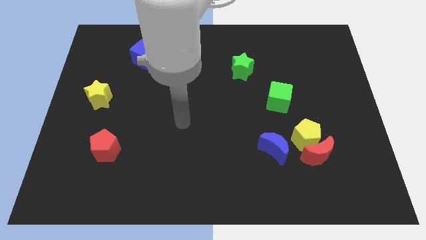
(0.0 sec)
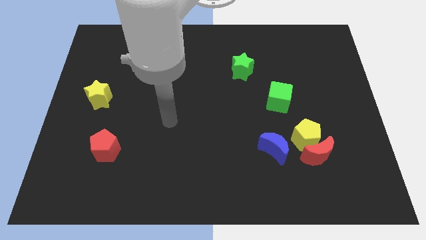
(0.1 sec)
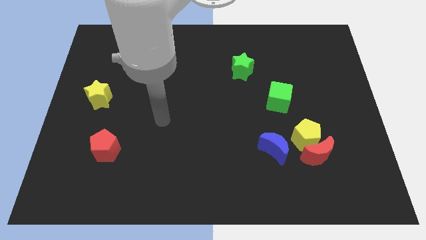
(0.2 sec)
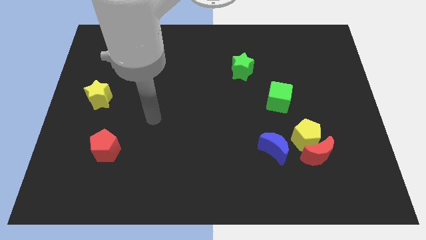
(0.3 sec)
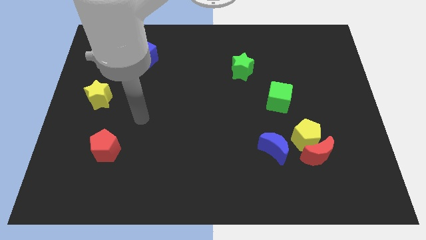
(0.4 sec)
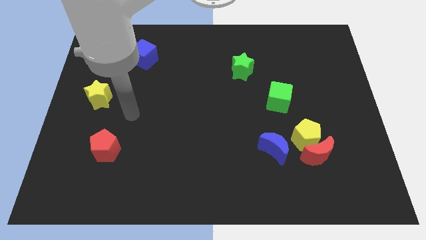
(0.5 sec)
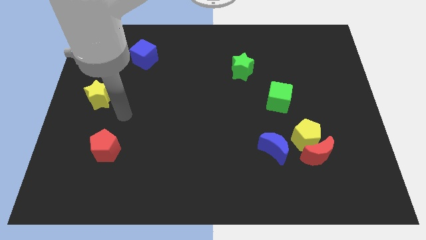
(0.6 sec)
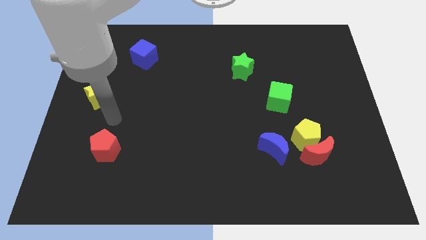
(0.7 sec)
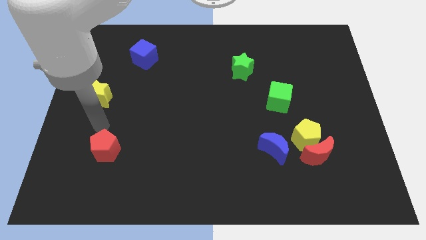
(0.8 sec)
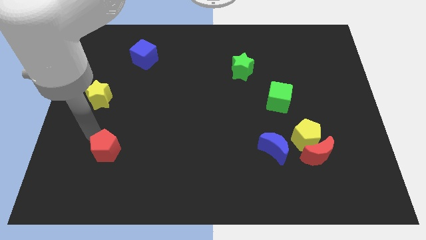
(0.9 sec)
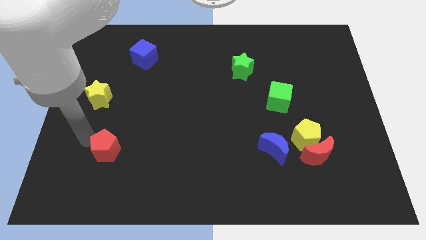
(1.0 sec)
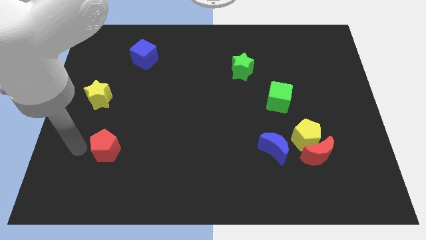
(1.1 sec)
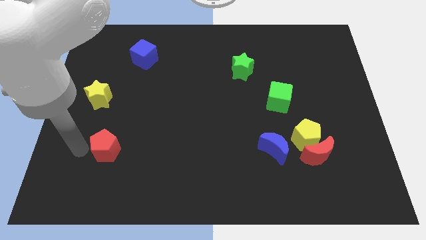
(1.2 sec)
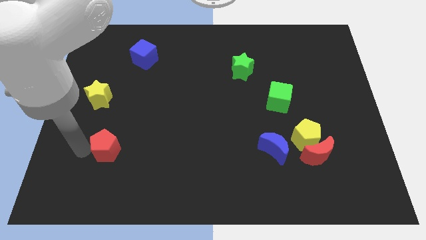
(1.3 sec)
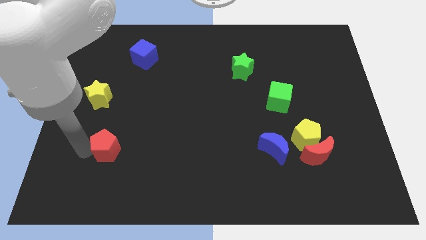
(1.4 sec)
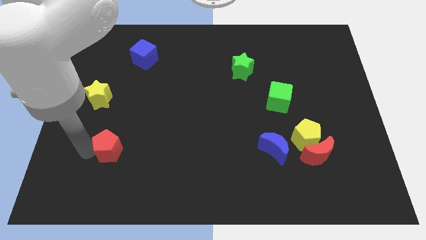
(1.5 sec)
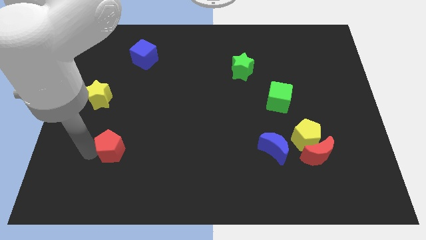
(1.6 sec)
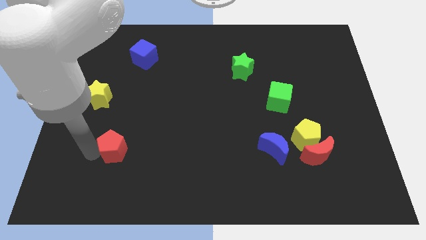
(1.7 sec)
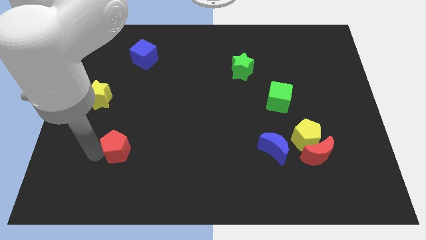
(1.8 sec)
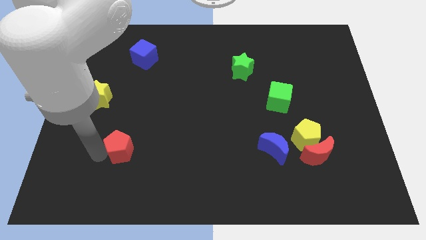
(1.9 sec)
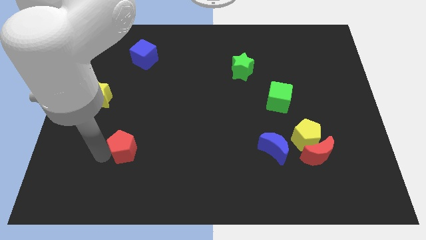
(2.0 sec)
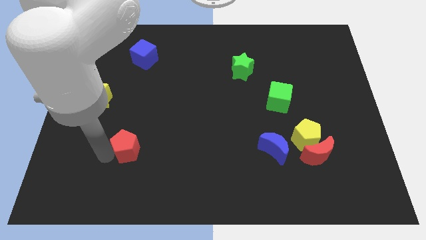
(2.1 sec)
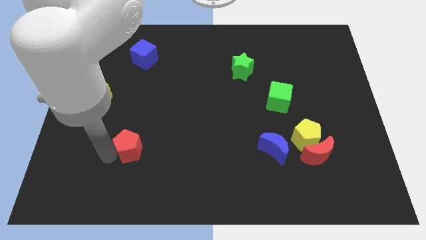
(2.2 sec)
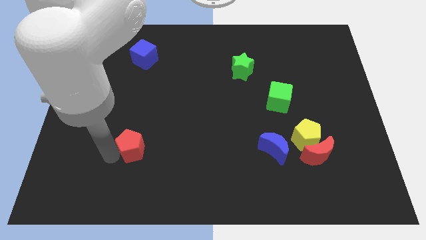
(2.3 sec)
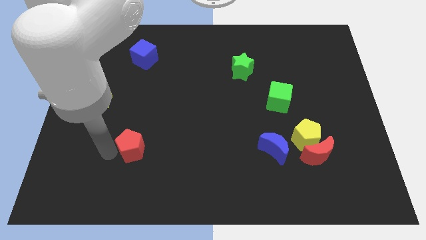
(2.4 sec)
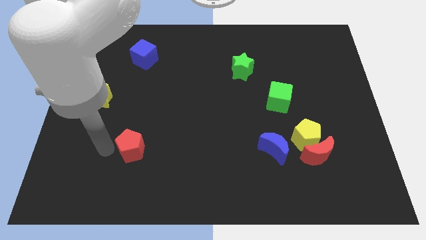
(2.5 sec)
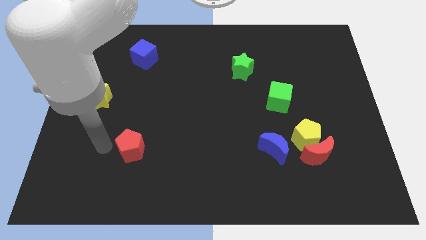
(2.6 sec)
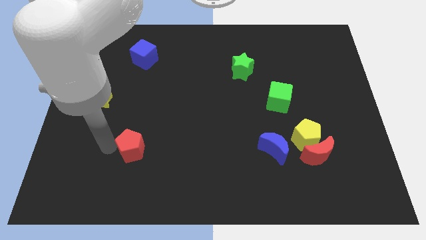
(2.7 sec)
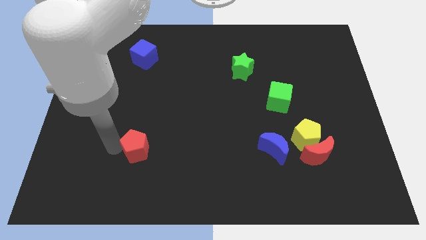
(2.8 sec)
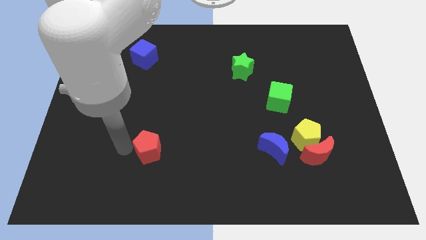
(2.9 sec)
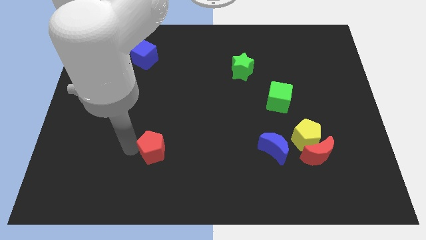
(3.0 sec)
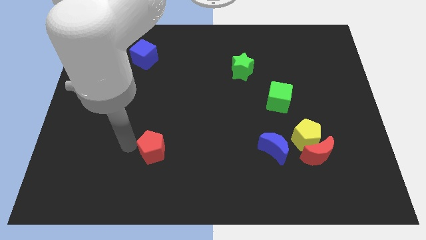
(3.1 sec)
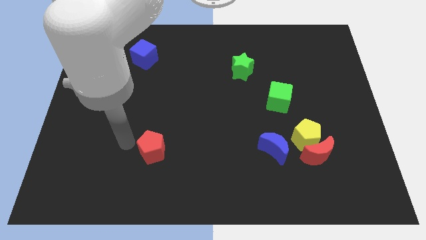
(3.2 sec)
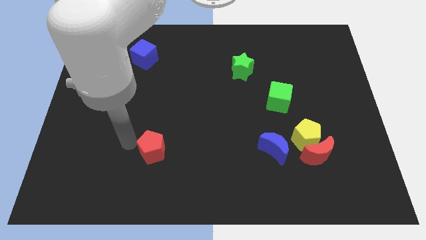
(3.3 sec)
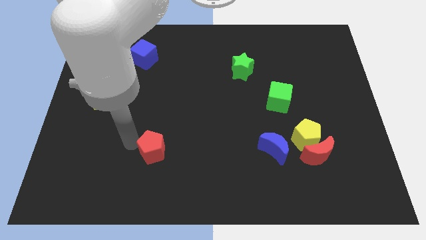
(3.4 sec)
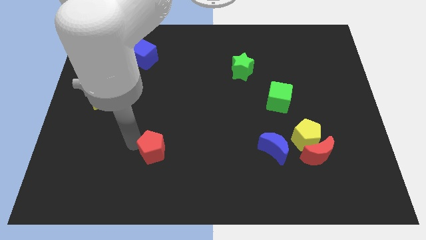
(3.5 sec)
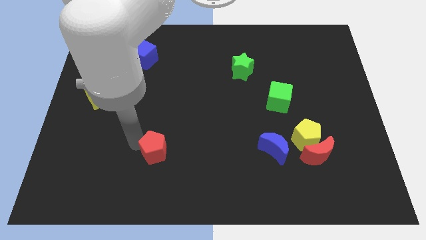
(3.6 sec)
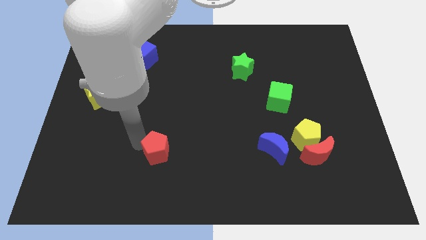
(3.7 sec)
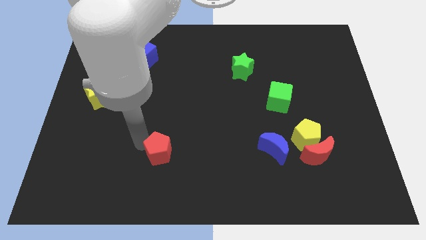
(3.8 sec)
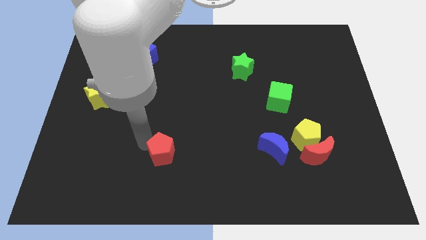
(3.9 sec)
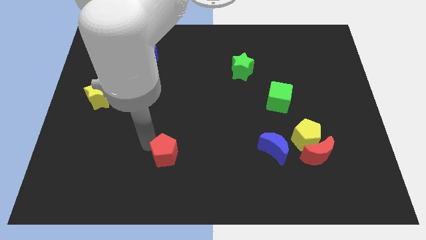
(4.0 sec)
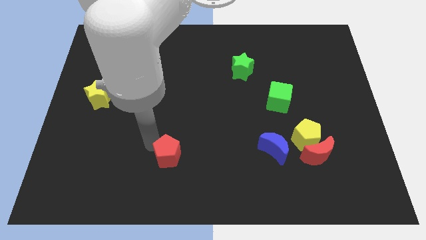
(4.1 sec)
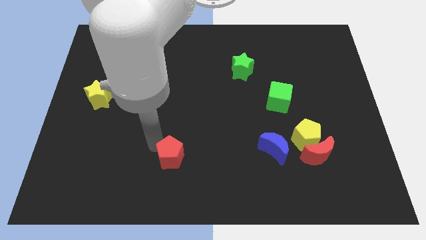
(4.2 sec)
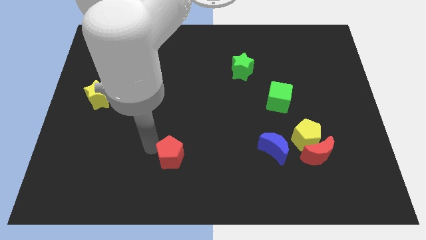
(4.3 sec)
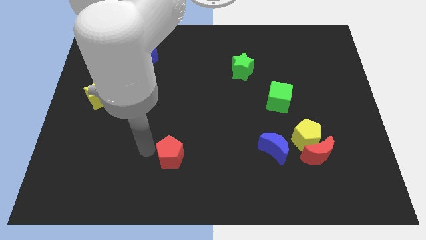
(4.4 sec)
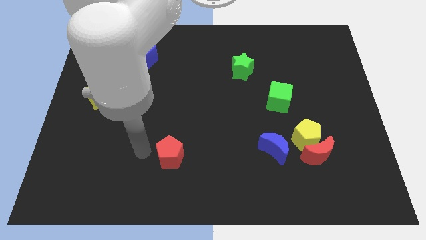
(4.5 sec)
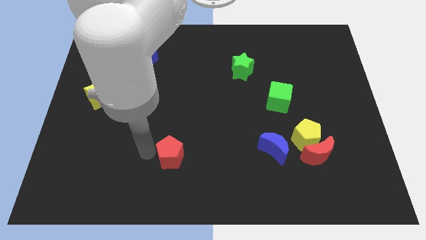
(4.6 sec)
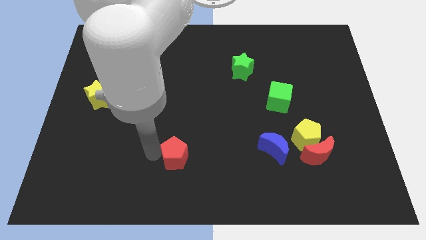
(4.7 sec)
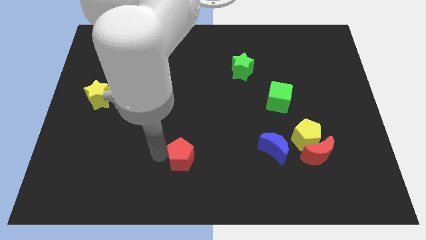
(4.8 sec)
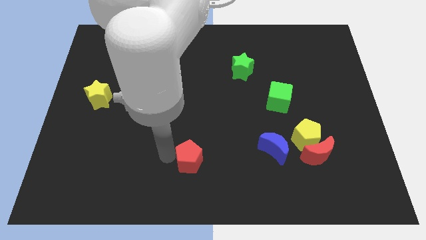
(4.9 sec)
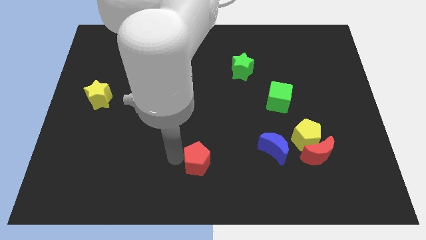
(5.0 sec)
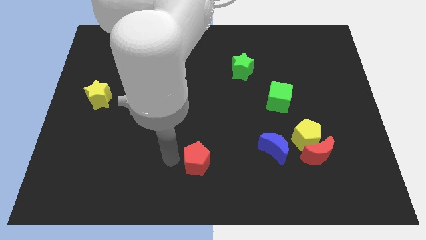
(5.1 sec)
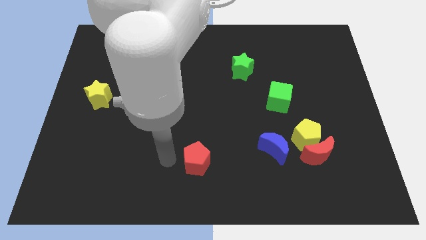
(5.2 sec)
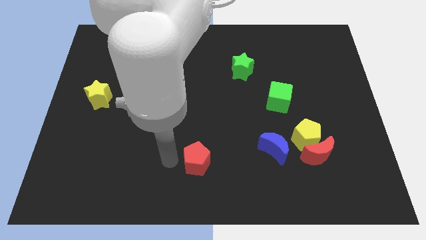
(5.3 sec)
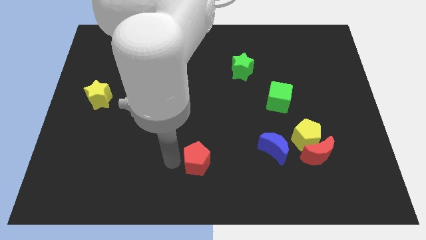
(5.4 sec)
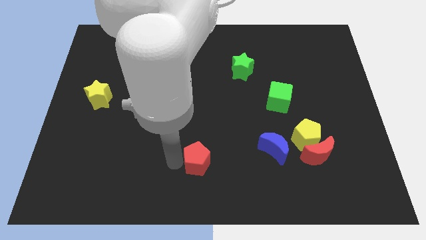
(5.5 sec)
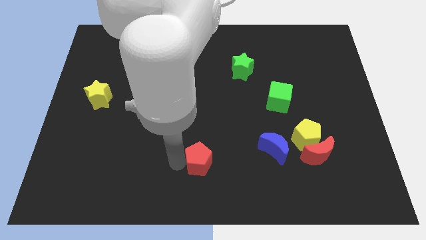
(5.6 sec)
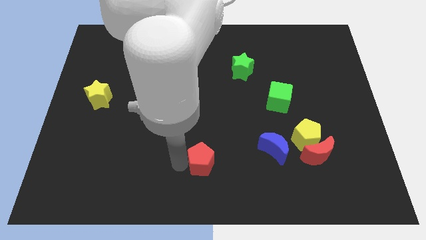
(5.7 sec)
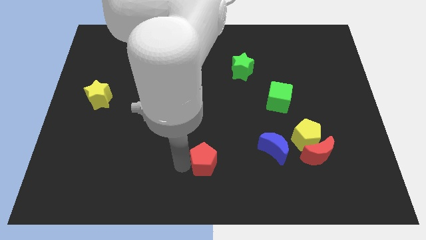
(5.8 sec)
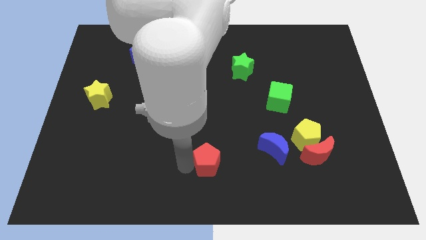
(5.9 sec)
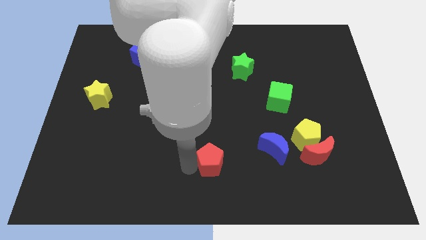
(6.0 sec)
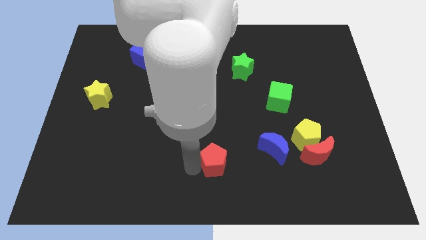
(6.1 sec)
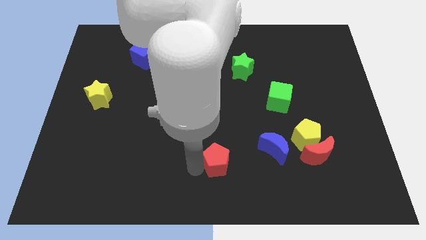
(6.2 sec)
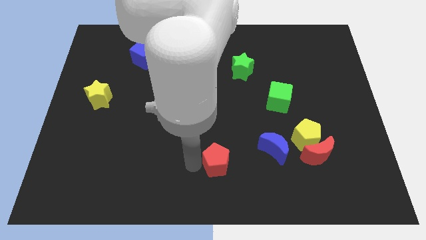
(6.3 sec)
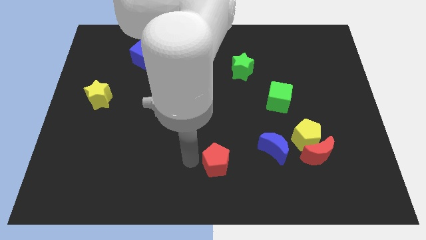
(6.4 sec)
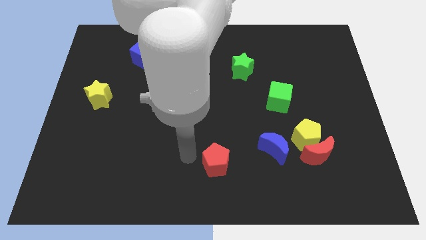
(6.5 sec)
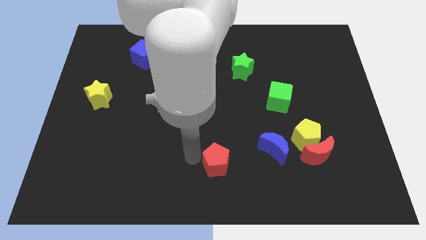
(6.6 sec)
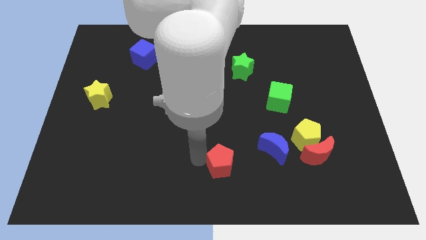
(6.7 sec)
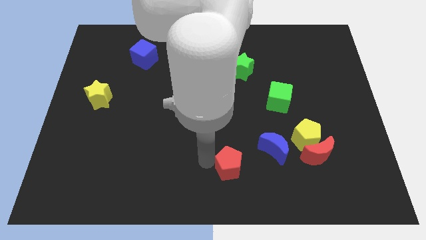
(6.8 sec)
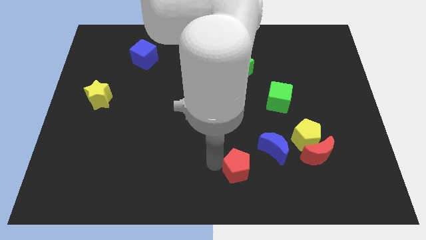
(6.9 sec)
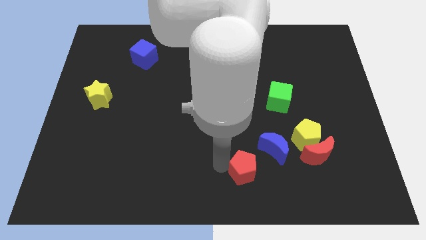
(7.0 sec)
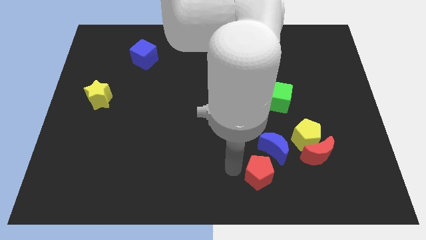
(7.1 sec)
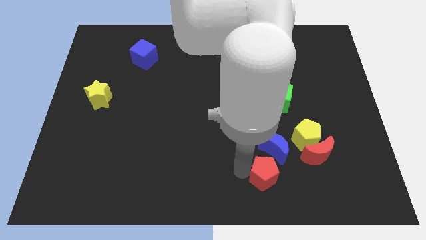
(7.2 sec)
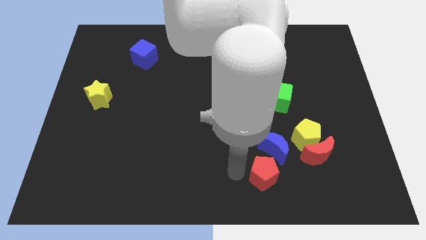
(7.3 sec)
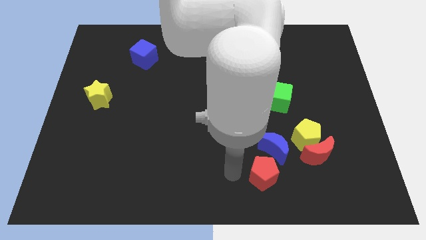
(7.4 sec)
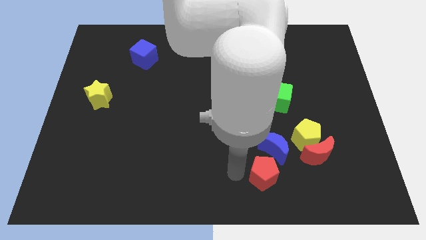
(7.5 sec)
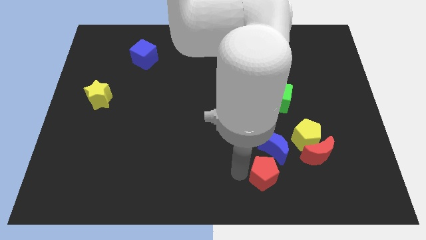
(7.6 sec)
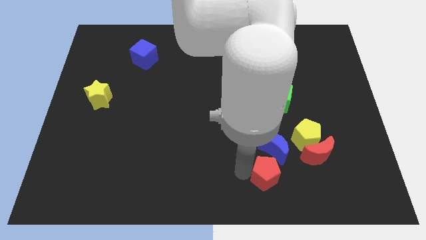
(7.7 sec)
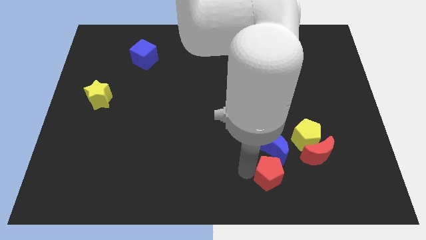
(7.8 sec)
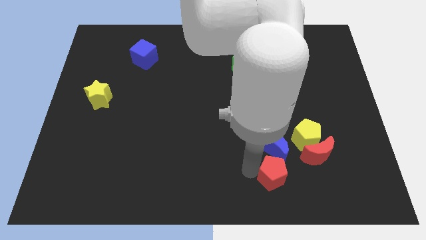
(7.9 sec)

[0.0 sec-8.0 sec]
move the red pentagon to the bottom left of the red moon
